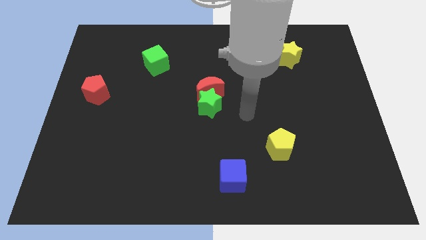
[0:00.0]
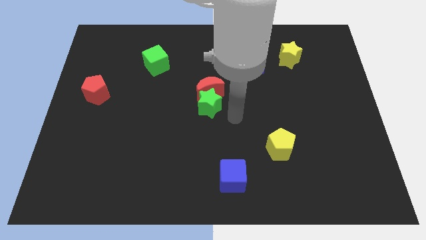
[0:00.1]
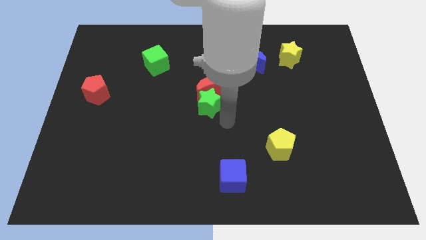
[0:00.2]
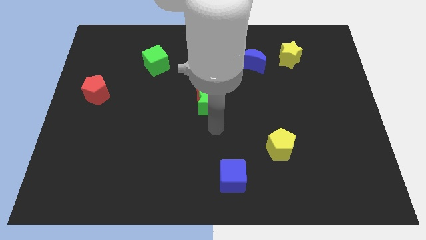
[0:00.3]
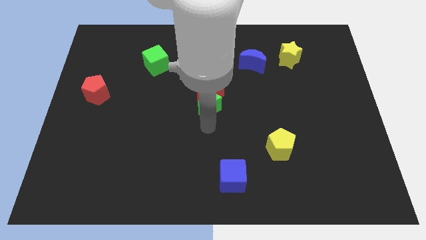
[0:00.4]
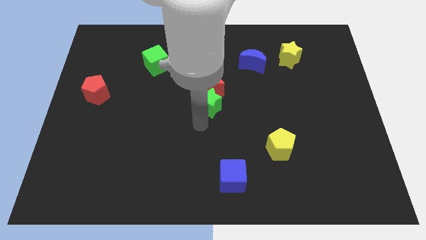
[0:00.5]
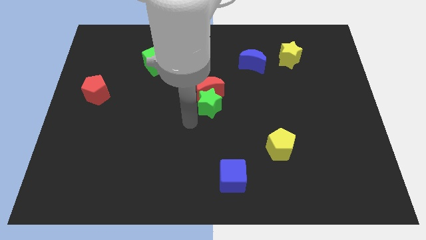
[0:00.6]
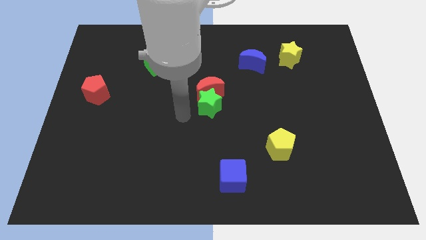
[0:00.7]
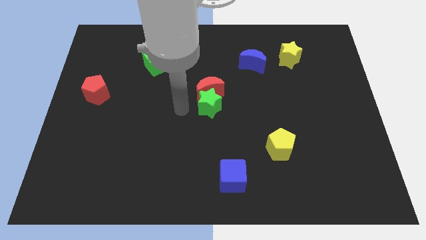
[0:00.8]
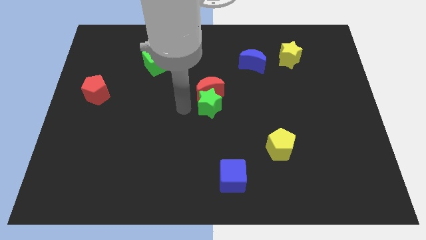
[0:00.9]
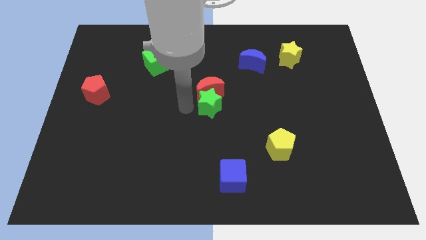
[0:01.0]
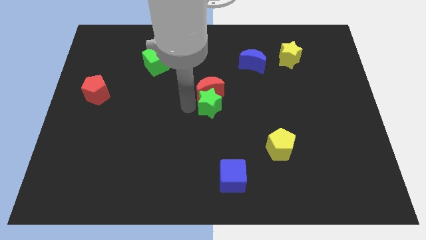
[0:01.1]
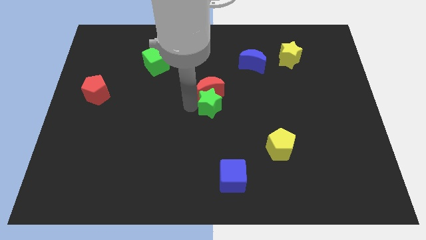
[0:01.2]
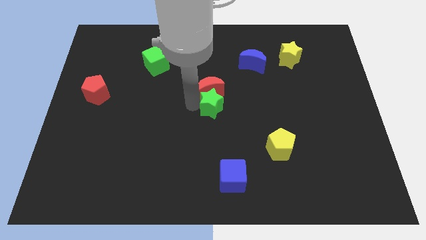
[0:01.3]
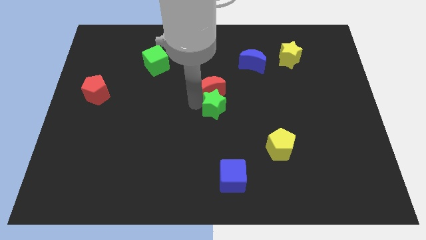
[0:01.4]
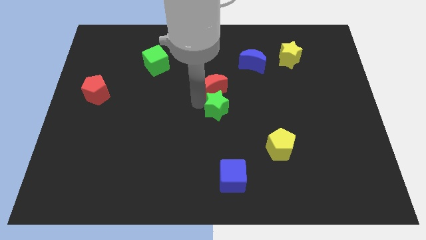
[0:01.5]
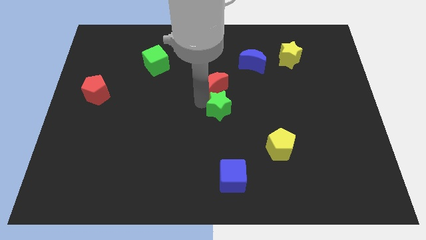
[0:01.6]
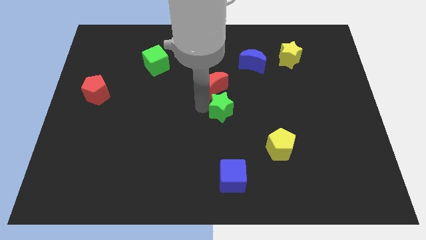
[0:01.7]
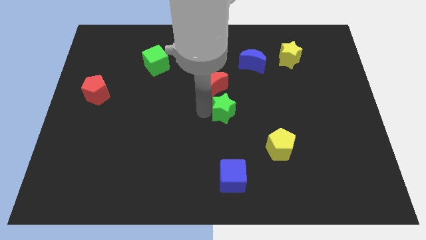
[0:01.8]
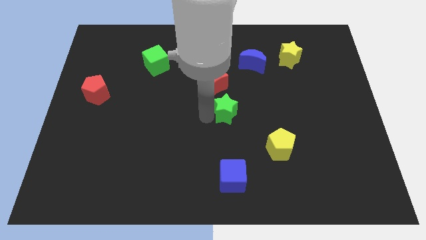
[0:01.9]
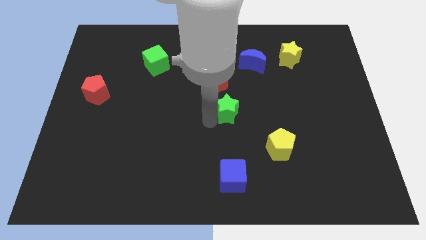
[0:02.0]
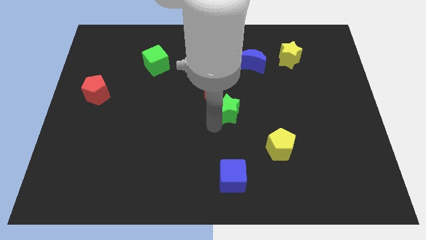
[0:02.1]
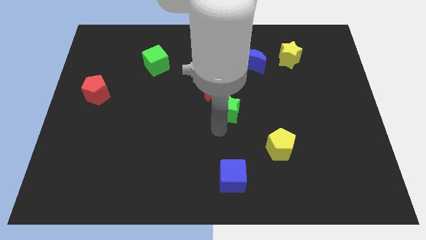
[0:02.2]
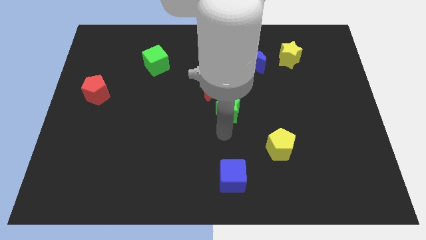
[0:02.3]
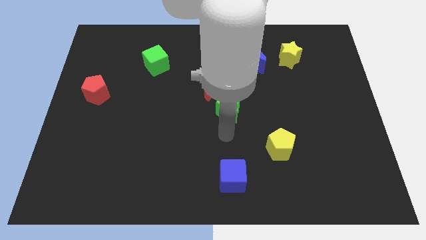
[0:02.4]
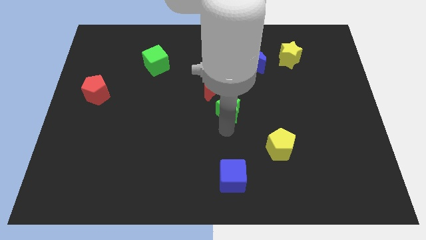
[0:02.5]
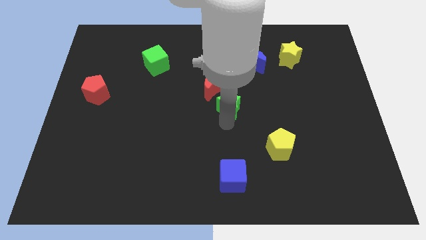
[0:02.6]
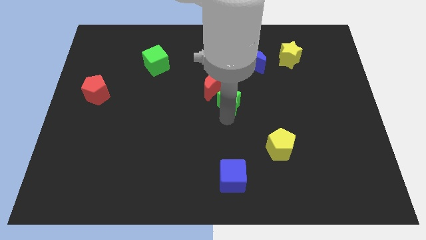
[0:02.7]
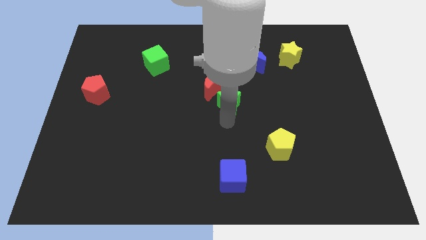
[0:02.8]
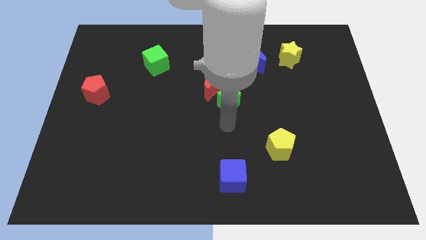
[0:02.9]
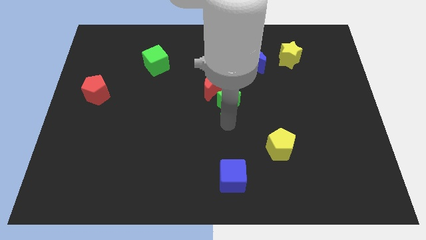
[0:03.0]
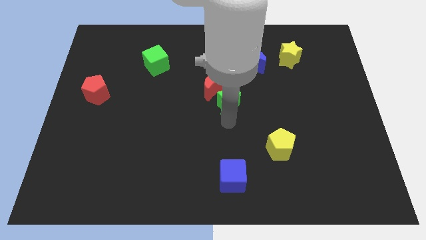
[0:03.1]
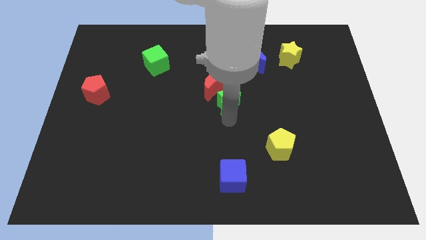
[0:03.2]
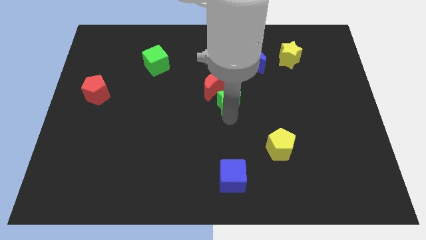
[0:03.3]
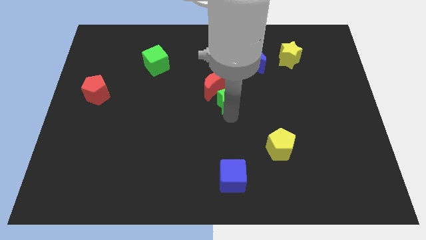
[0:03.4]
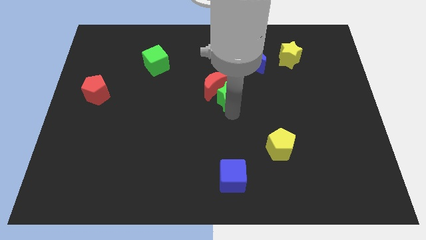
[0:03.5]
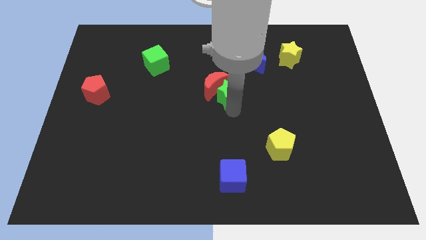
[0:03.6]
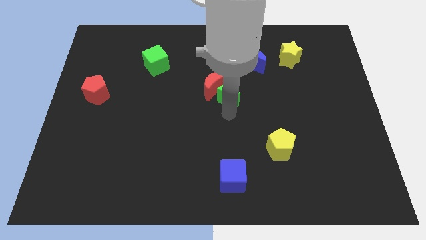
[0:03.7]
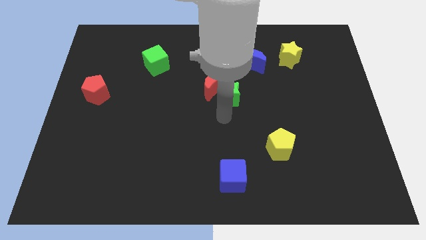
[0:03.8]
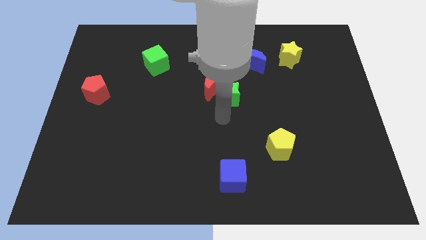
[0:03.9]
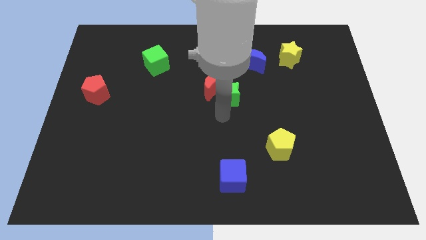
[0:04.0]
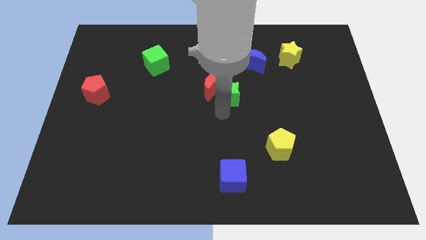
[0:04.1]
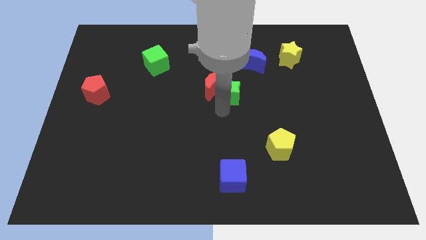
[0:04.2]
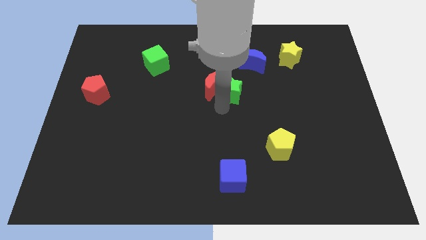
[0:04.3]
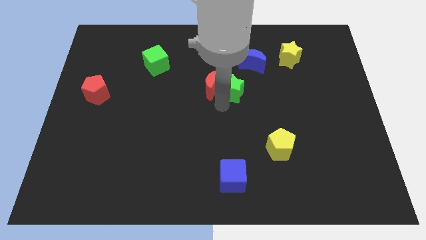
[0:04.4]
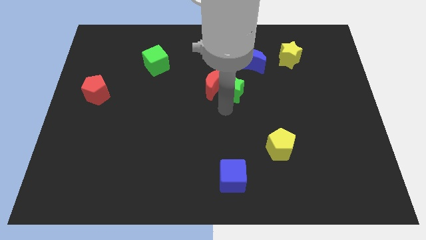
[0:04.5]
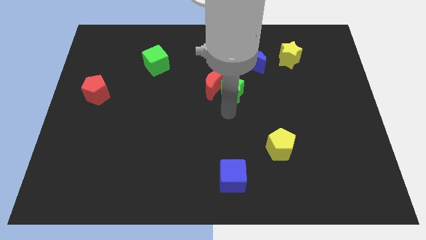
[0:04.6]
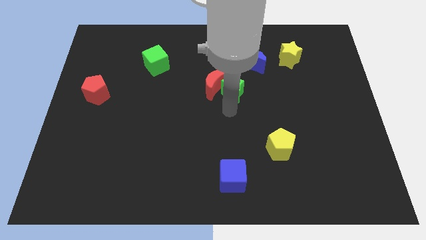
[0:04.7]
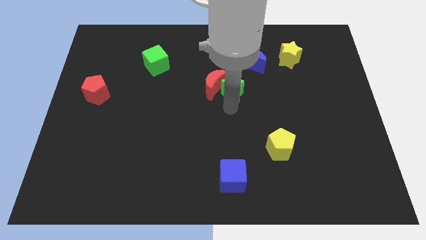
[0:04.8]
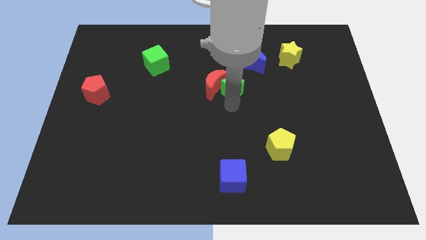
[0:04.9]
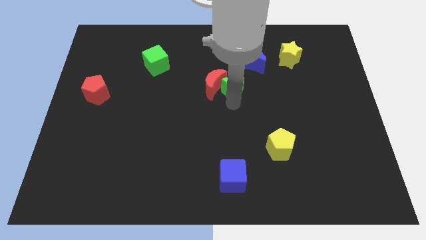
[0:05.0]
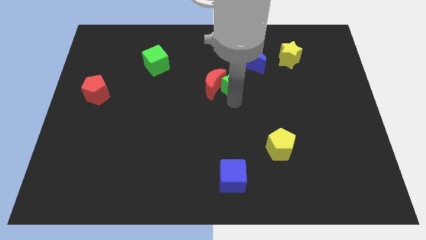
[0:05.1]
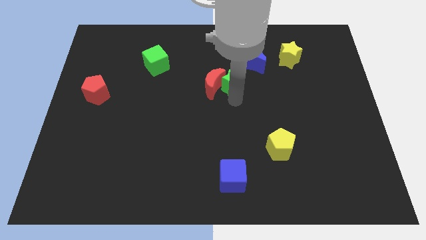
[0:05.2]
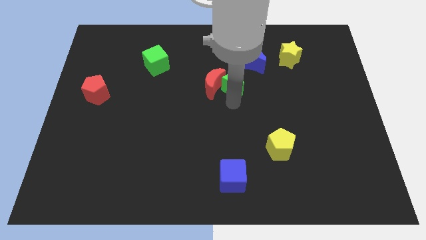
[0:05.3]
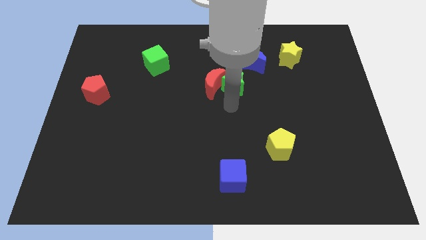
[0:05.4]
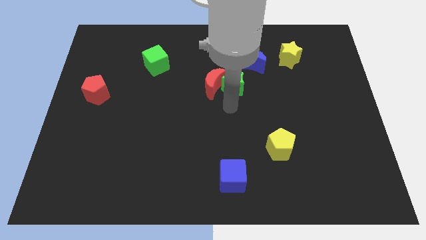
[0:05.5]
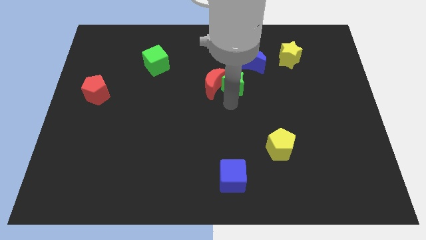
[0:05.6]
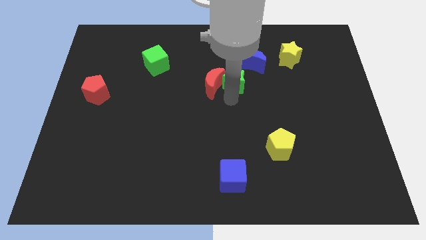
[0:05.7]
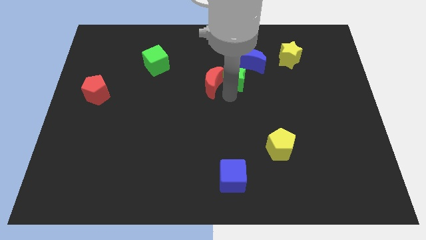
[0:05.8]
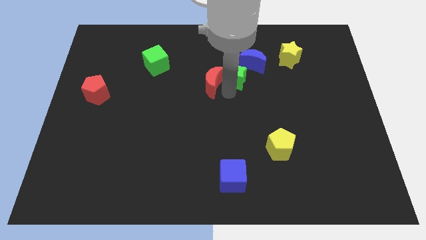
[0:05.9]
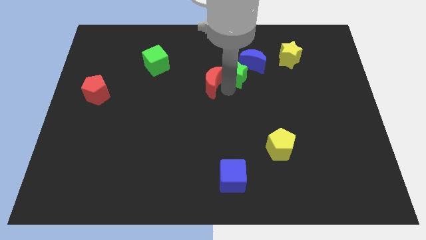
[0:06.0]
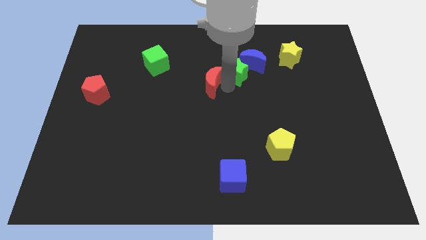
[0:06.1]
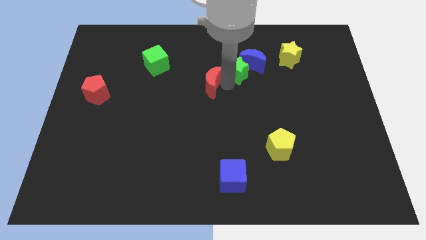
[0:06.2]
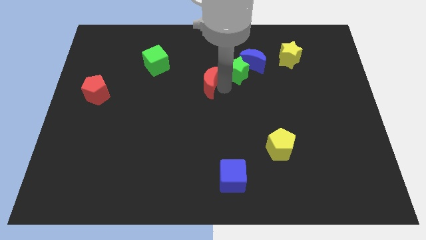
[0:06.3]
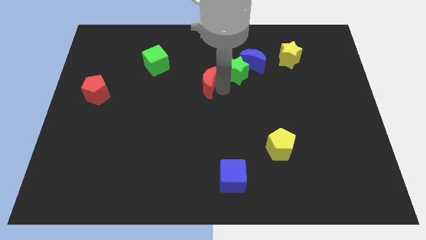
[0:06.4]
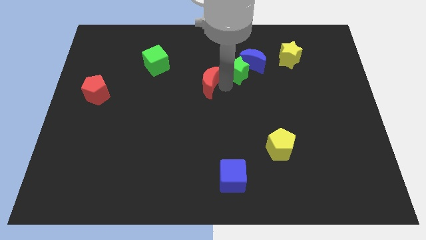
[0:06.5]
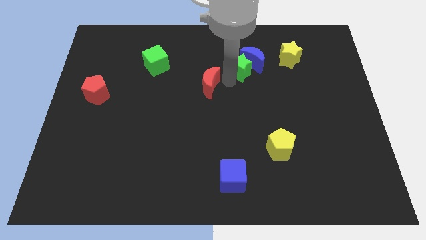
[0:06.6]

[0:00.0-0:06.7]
push the green star to the left of the yellow star

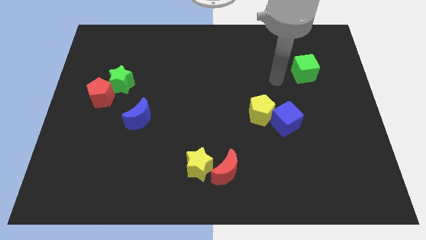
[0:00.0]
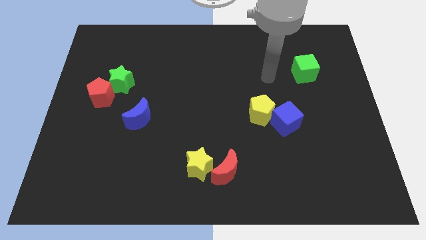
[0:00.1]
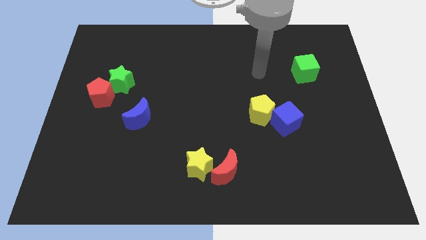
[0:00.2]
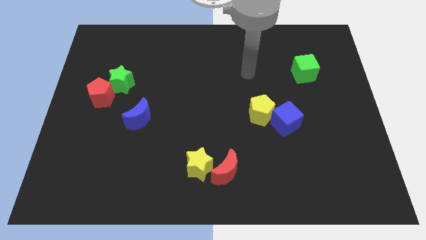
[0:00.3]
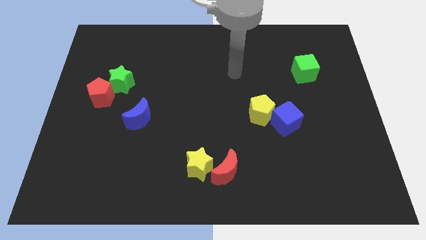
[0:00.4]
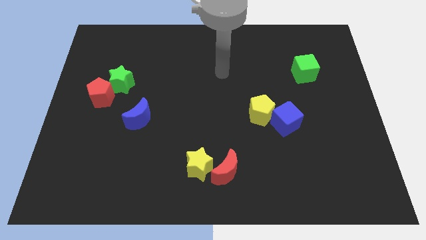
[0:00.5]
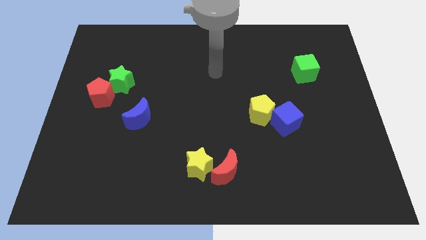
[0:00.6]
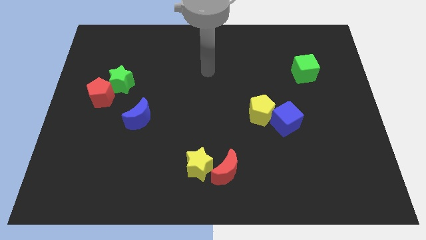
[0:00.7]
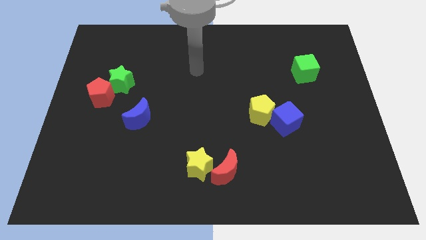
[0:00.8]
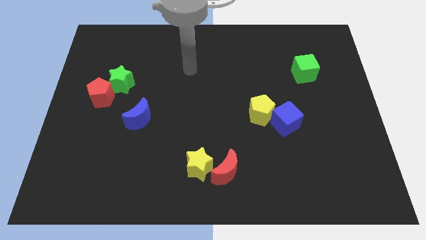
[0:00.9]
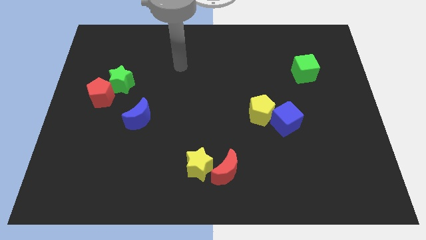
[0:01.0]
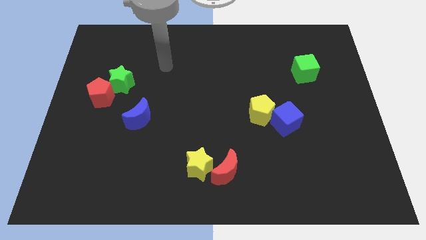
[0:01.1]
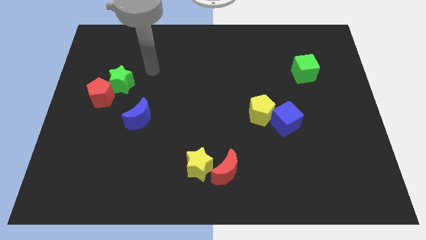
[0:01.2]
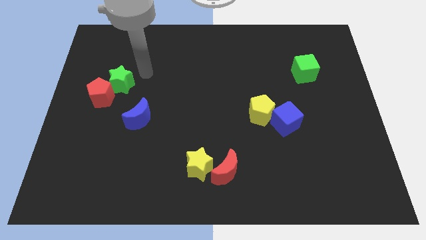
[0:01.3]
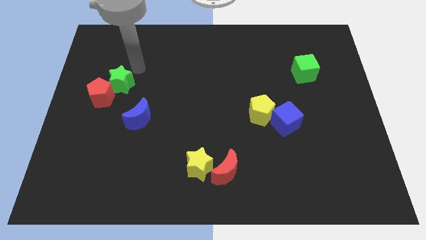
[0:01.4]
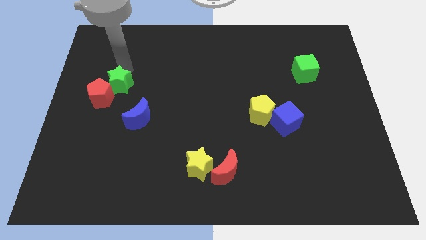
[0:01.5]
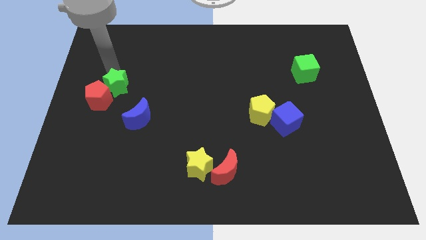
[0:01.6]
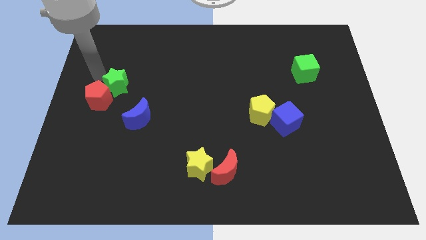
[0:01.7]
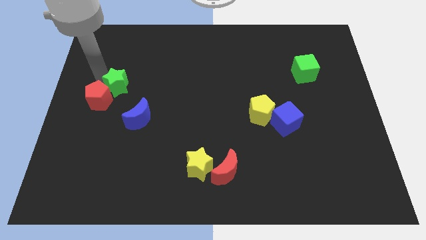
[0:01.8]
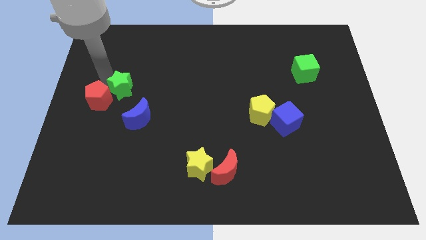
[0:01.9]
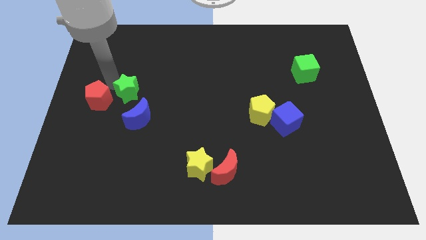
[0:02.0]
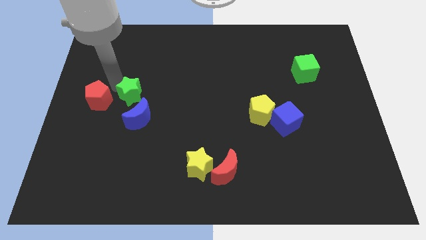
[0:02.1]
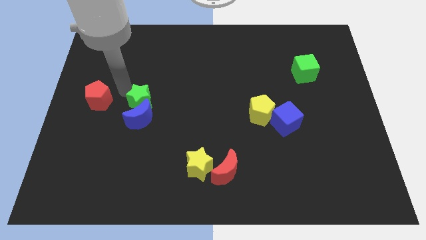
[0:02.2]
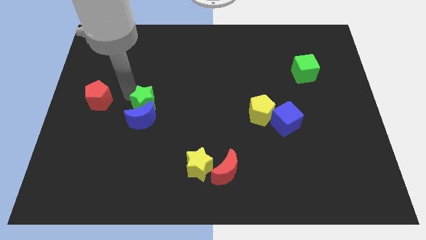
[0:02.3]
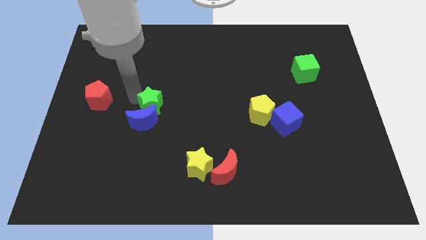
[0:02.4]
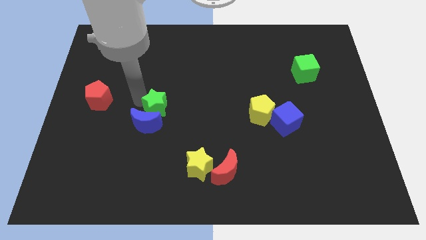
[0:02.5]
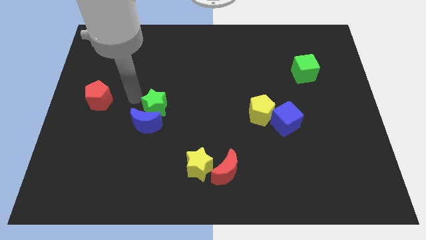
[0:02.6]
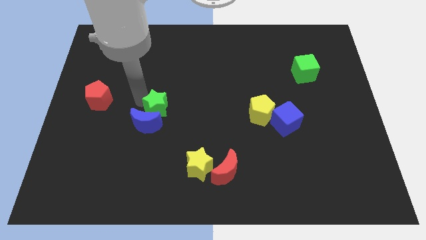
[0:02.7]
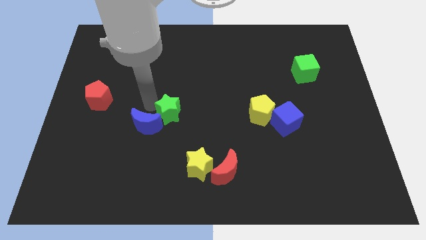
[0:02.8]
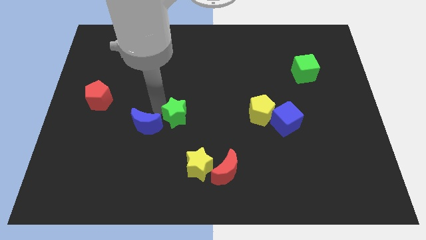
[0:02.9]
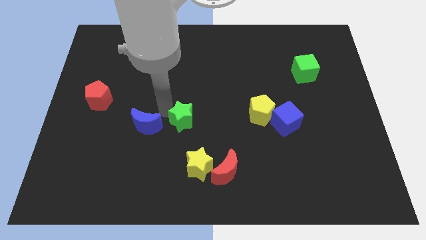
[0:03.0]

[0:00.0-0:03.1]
slide the green star to the top side of the yellow star
